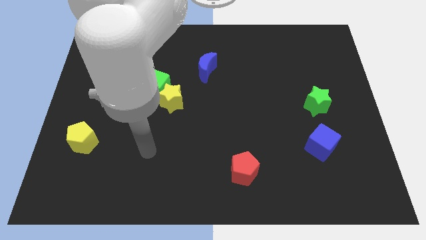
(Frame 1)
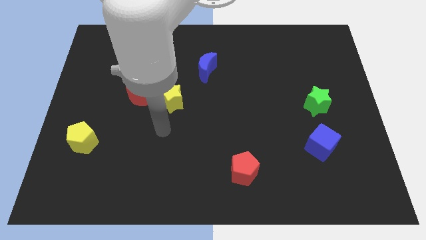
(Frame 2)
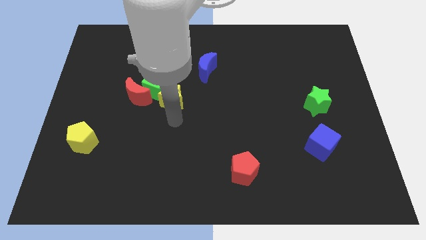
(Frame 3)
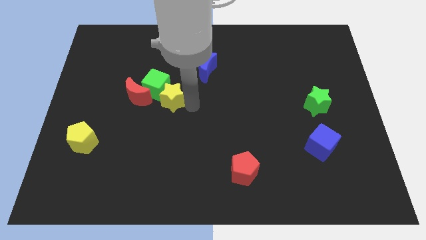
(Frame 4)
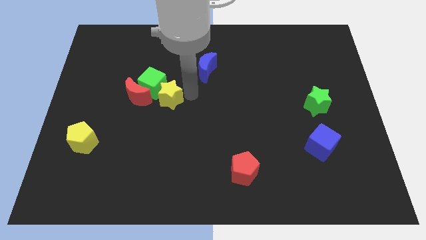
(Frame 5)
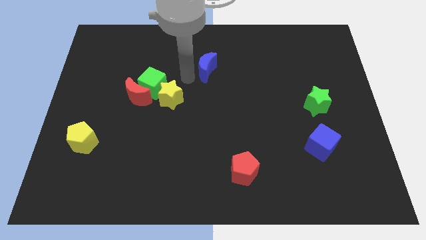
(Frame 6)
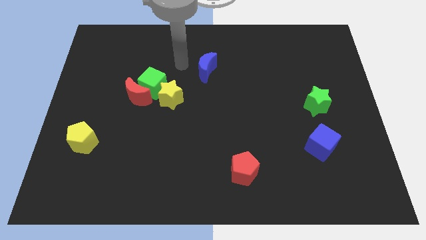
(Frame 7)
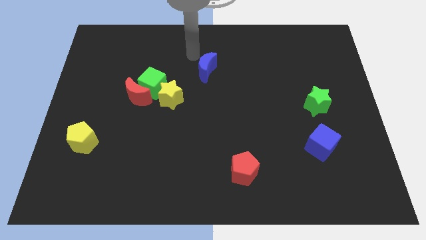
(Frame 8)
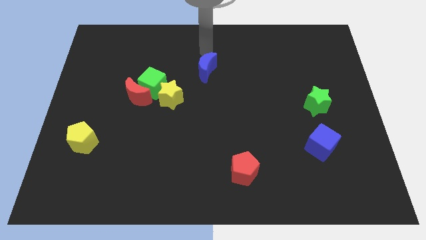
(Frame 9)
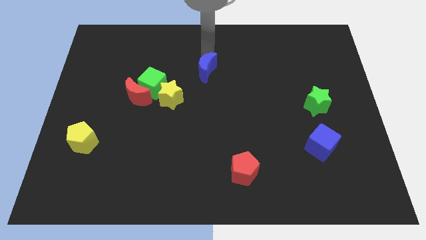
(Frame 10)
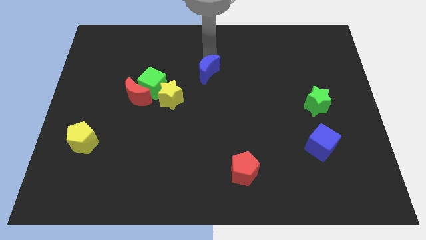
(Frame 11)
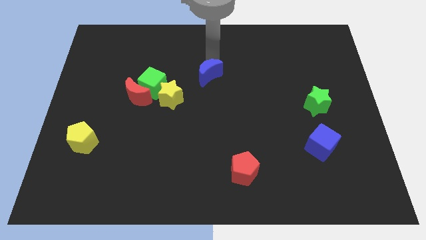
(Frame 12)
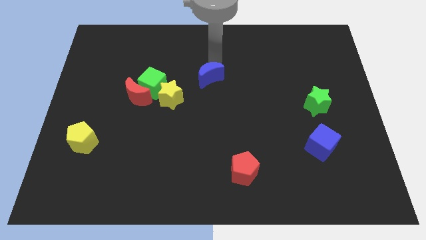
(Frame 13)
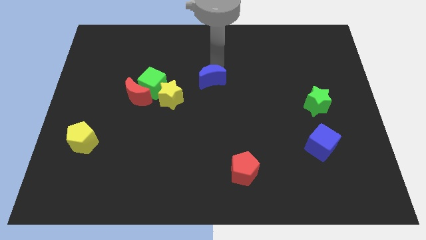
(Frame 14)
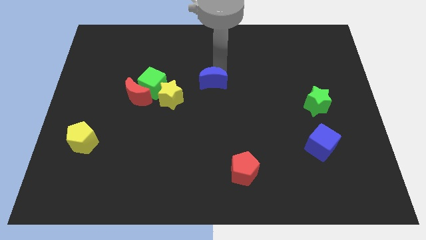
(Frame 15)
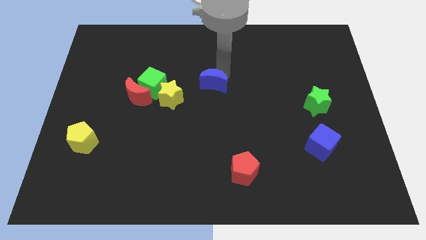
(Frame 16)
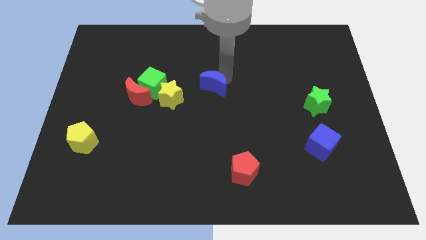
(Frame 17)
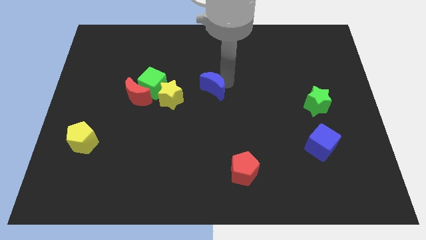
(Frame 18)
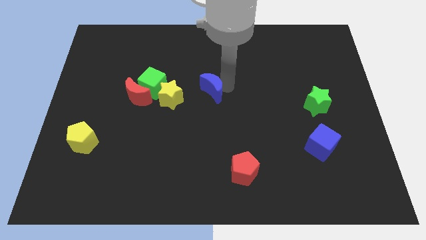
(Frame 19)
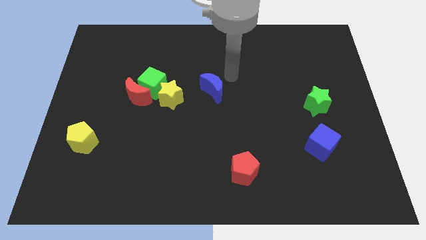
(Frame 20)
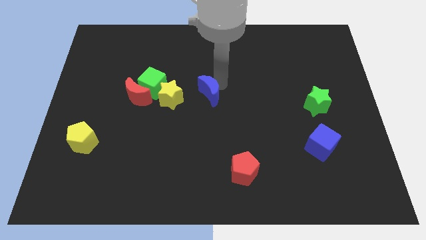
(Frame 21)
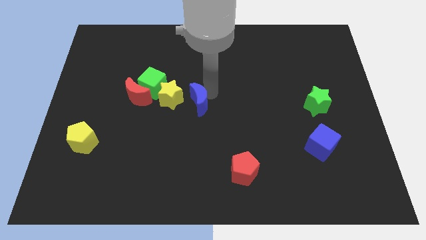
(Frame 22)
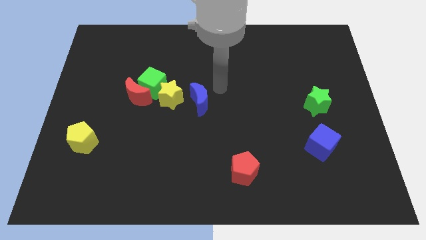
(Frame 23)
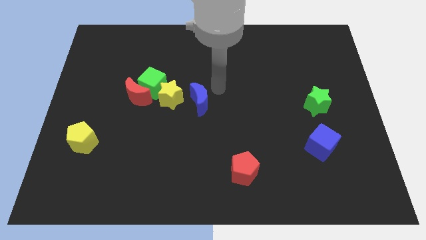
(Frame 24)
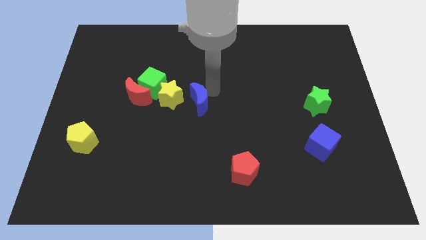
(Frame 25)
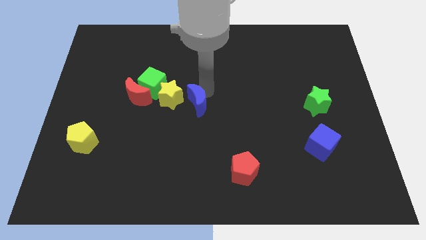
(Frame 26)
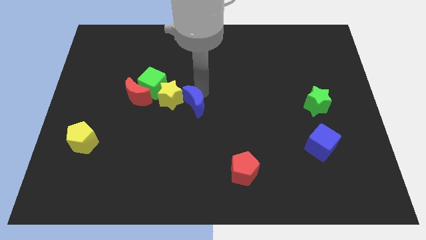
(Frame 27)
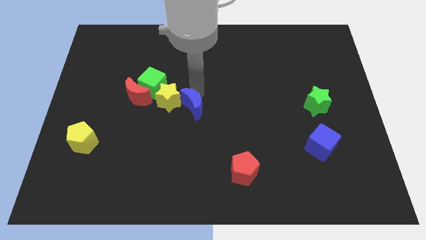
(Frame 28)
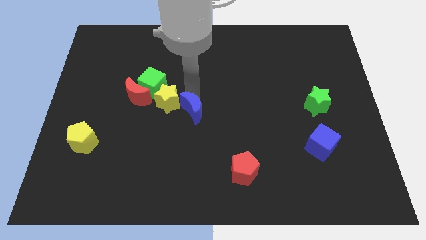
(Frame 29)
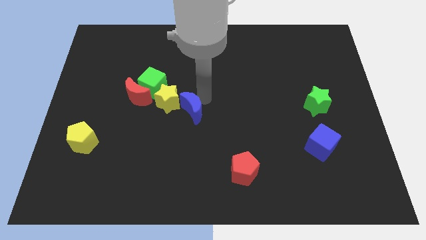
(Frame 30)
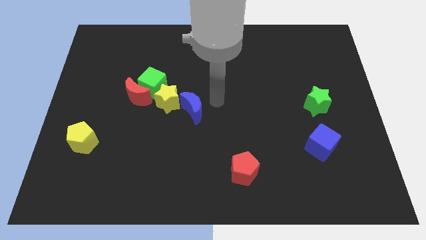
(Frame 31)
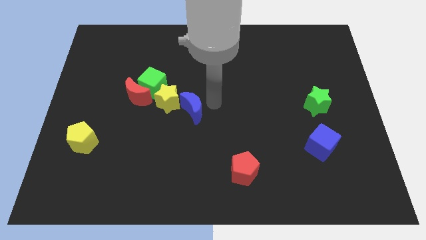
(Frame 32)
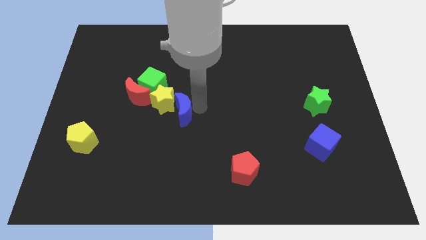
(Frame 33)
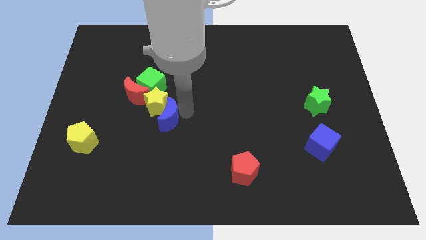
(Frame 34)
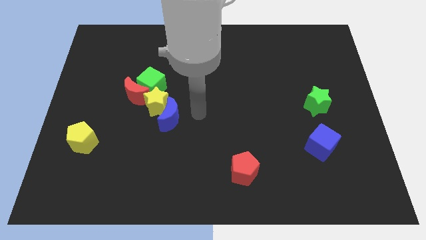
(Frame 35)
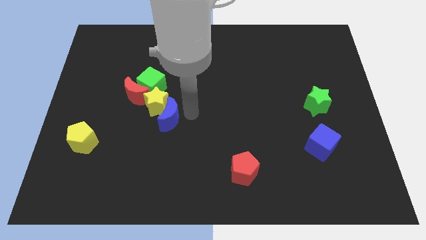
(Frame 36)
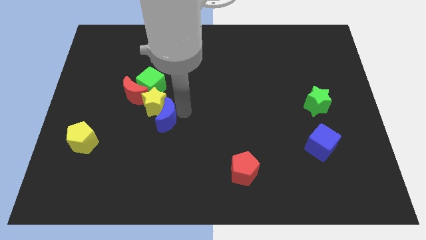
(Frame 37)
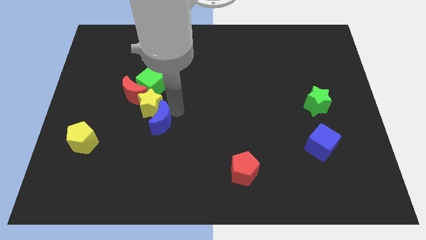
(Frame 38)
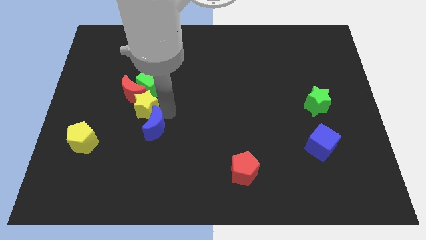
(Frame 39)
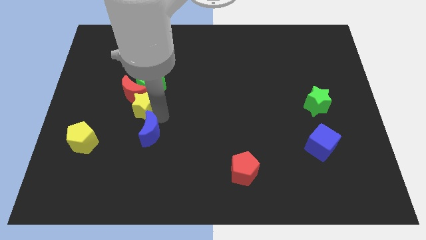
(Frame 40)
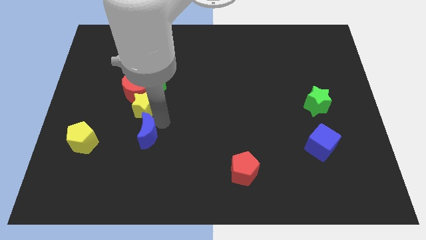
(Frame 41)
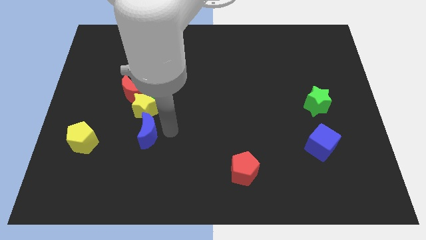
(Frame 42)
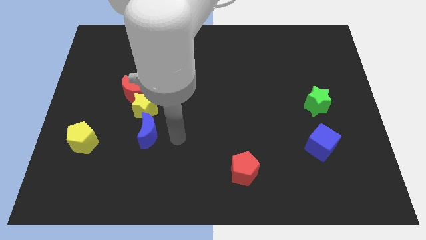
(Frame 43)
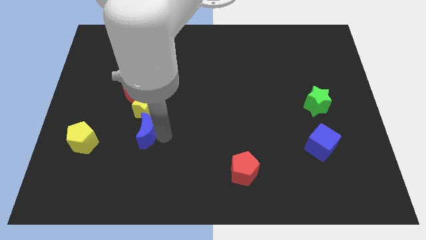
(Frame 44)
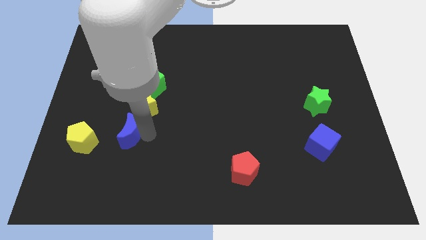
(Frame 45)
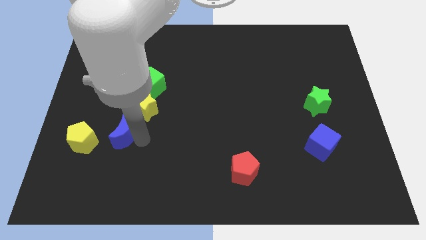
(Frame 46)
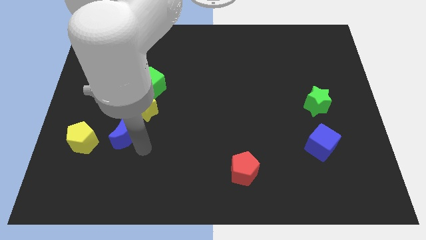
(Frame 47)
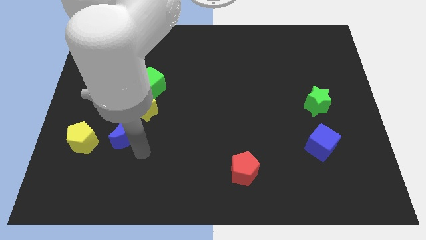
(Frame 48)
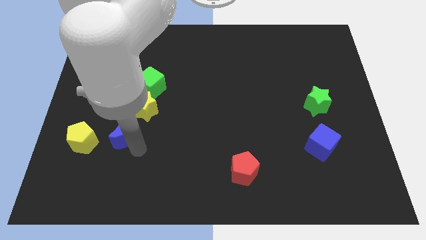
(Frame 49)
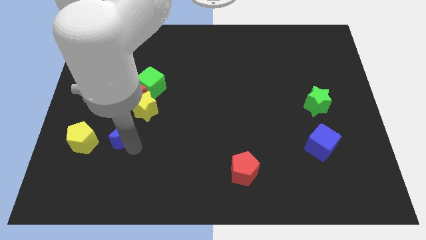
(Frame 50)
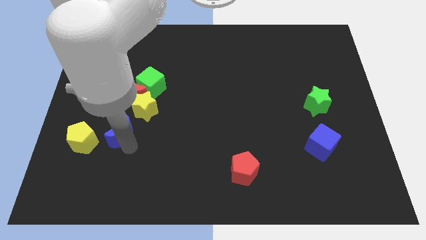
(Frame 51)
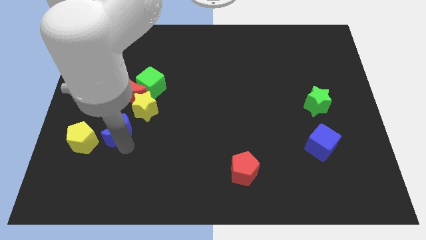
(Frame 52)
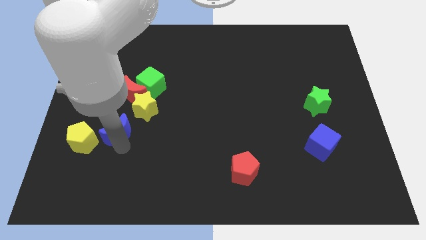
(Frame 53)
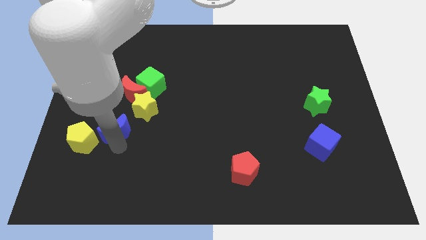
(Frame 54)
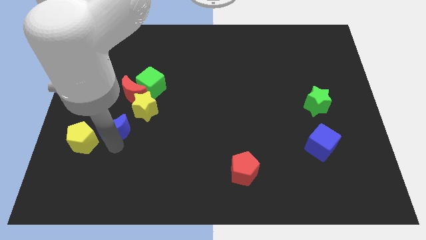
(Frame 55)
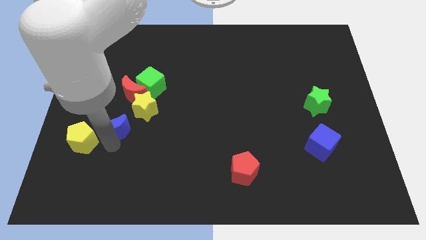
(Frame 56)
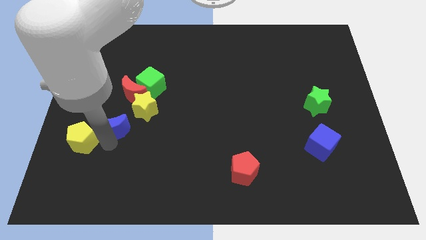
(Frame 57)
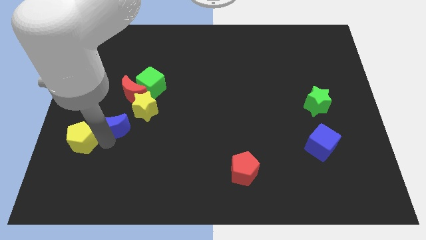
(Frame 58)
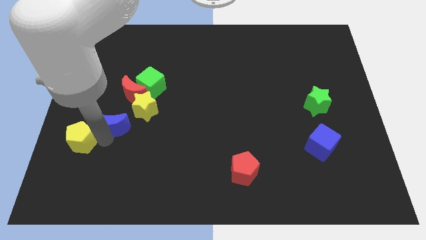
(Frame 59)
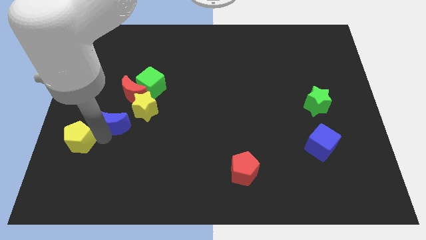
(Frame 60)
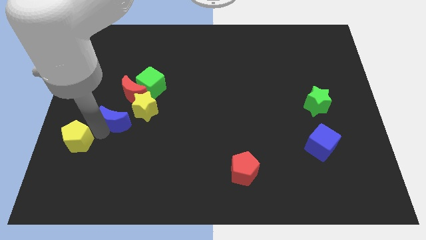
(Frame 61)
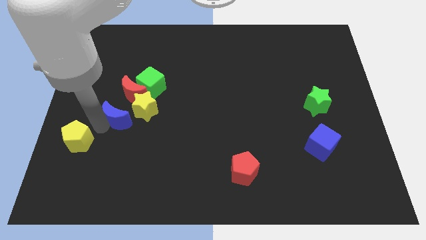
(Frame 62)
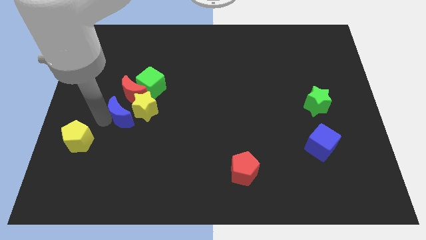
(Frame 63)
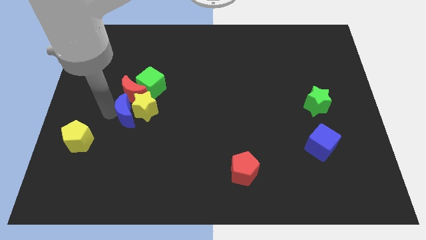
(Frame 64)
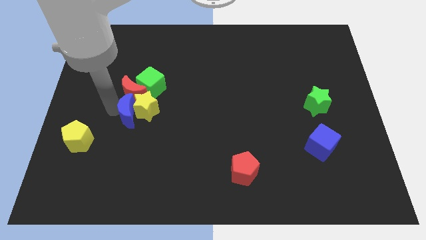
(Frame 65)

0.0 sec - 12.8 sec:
move the blue moon diagonally down and to the left of the yellow star

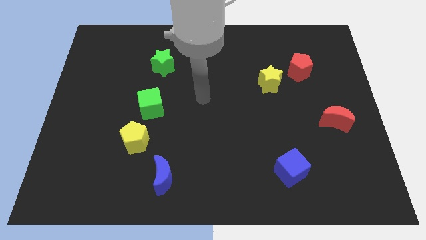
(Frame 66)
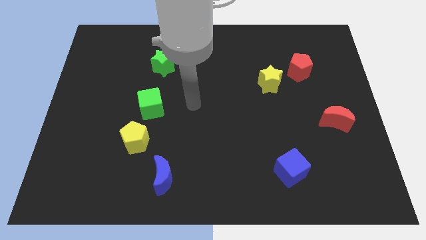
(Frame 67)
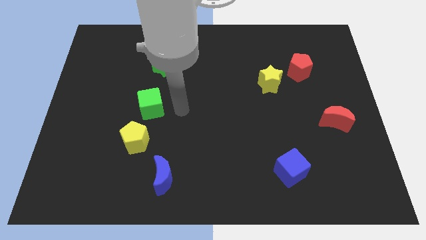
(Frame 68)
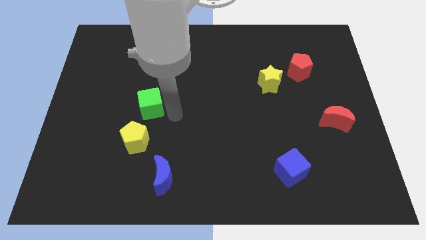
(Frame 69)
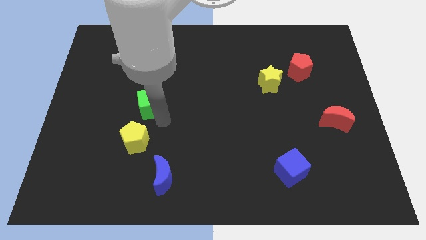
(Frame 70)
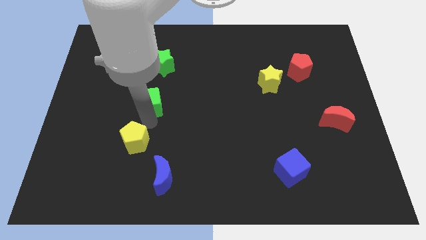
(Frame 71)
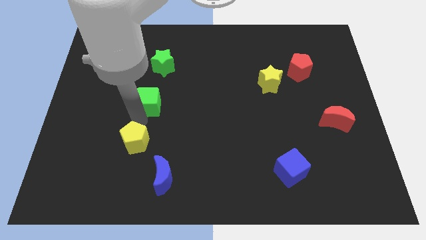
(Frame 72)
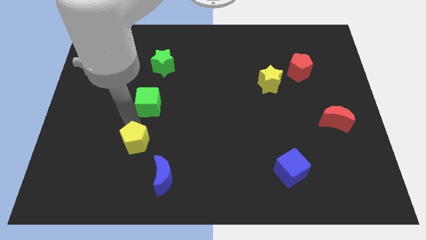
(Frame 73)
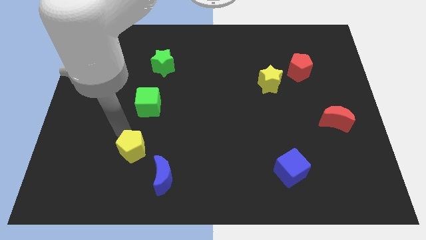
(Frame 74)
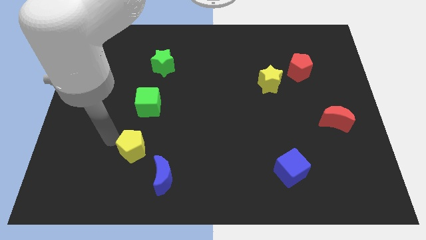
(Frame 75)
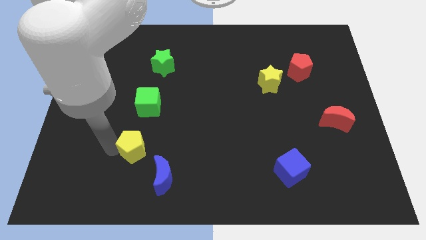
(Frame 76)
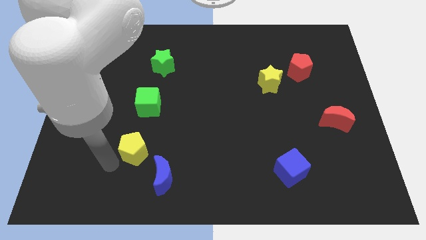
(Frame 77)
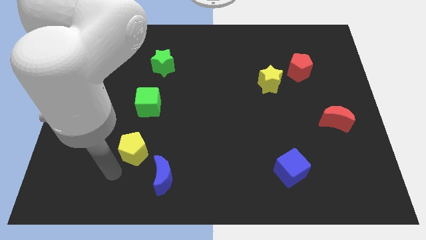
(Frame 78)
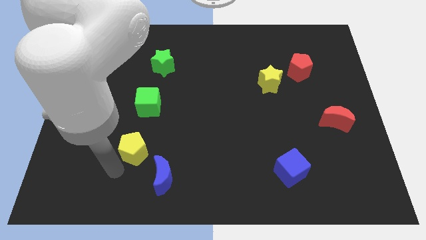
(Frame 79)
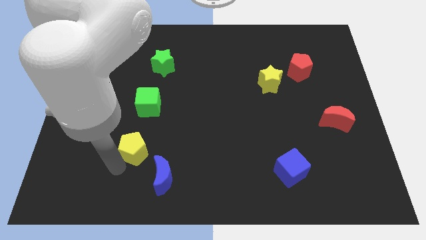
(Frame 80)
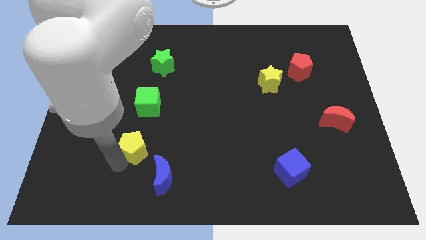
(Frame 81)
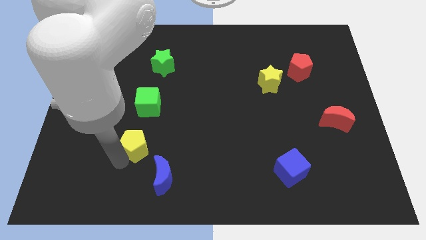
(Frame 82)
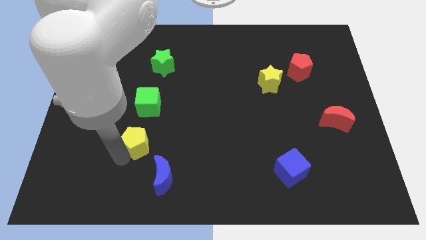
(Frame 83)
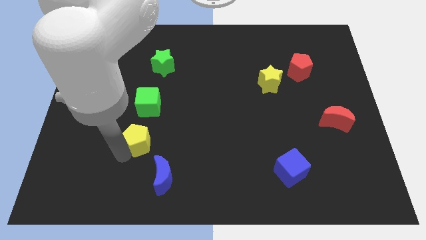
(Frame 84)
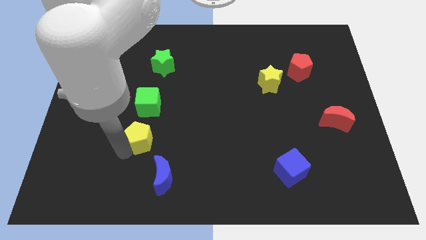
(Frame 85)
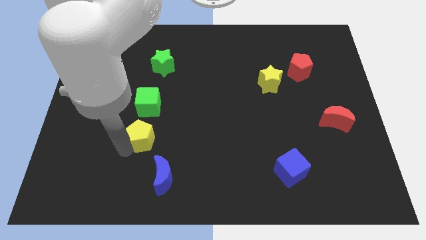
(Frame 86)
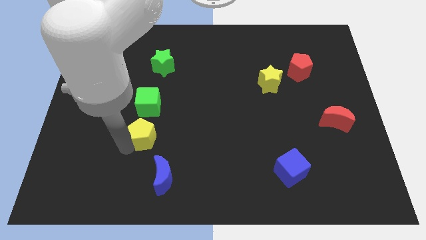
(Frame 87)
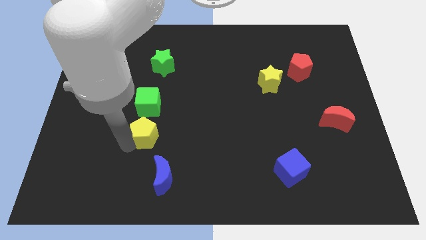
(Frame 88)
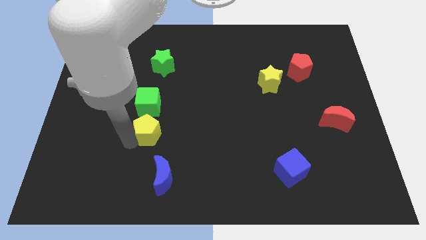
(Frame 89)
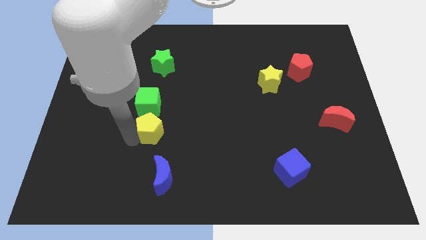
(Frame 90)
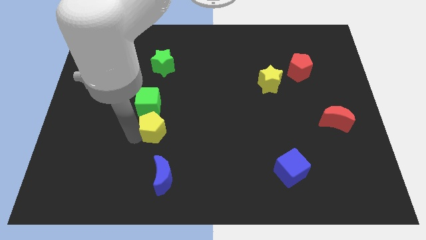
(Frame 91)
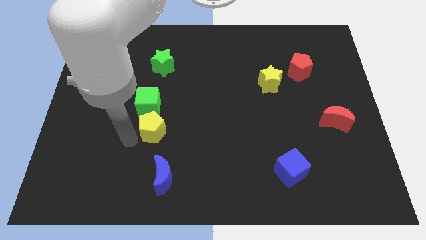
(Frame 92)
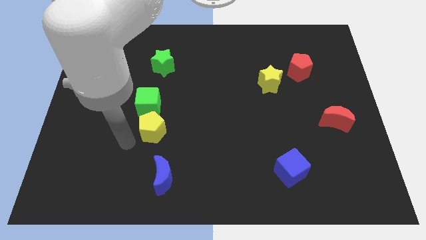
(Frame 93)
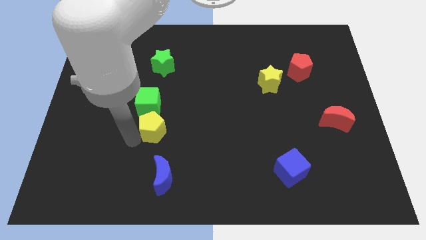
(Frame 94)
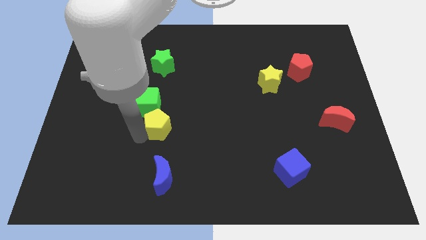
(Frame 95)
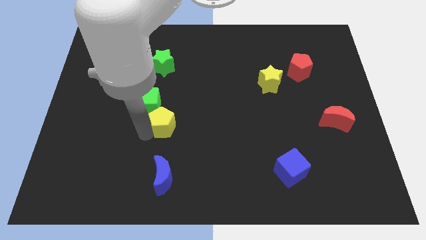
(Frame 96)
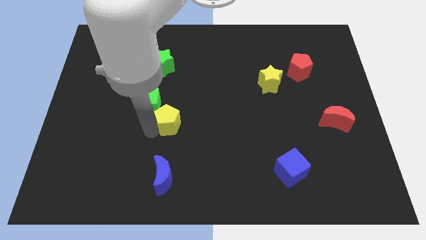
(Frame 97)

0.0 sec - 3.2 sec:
put the yellow pentagon right of the green cube
